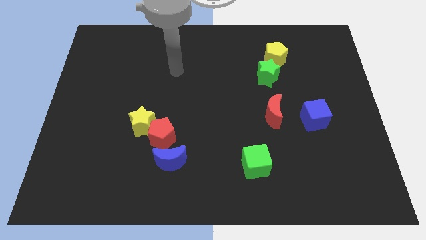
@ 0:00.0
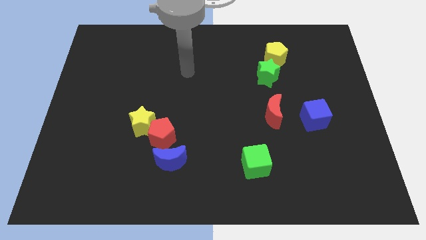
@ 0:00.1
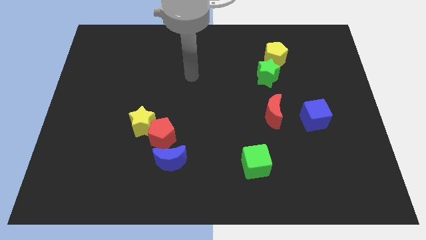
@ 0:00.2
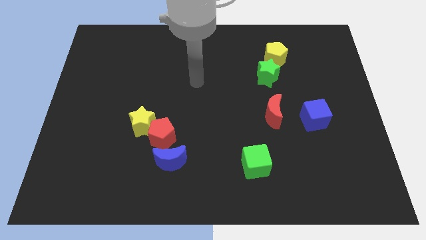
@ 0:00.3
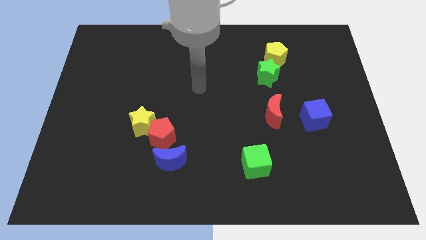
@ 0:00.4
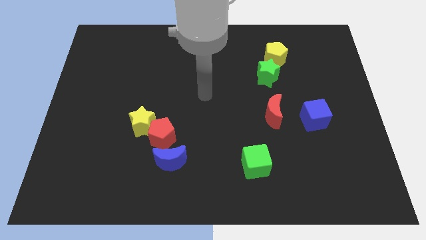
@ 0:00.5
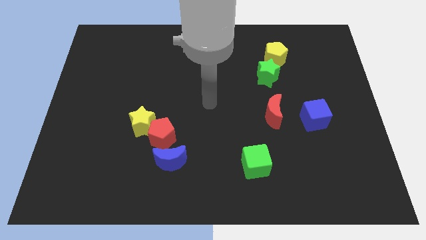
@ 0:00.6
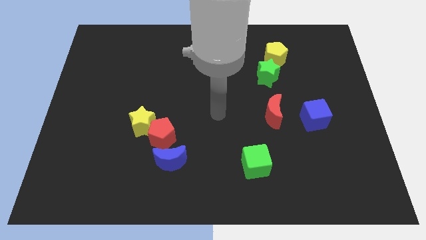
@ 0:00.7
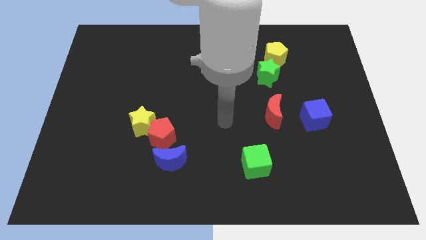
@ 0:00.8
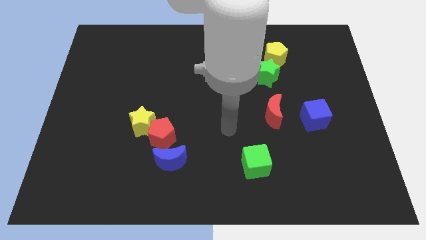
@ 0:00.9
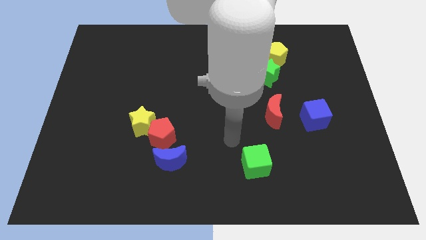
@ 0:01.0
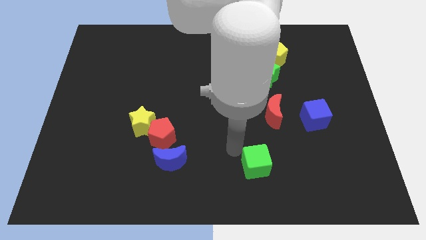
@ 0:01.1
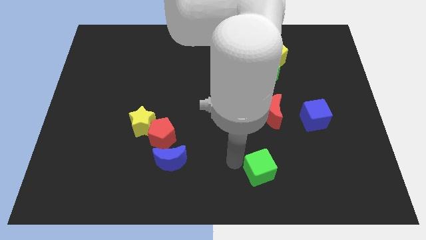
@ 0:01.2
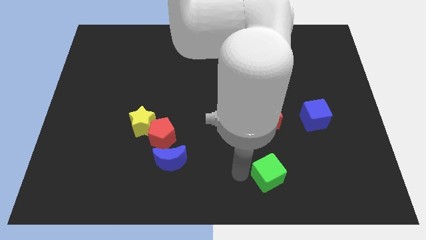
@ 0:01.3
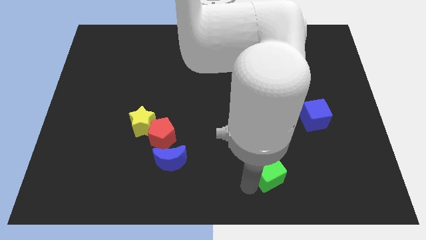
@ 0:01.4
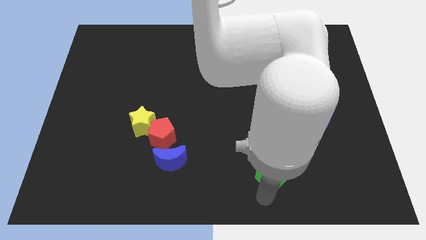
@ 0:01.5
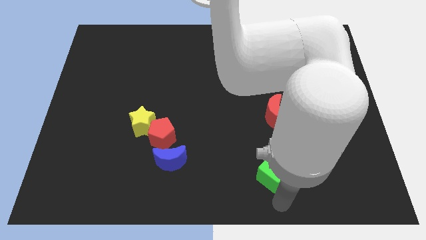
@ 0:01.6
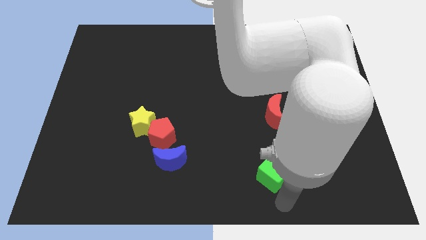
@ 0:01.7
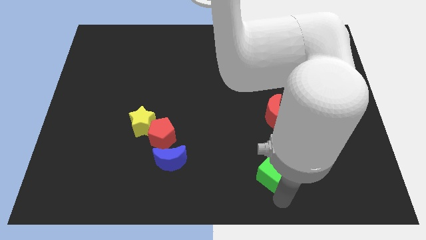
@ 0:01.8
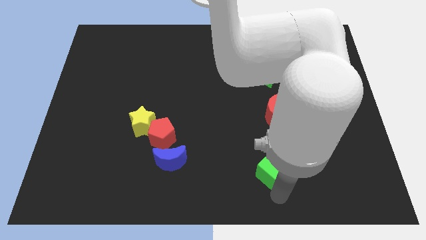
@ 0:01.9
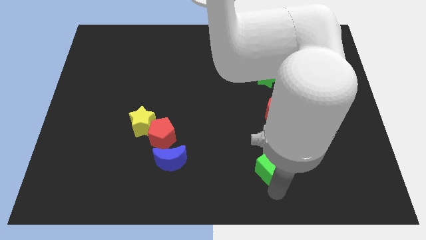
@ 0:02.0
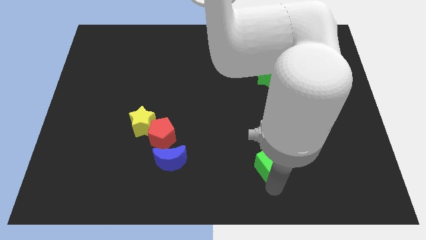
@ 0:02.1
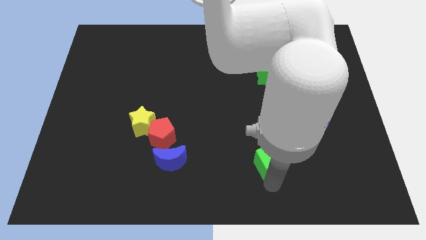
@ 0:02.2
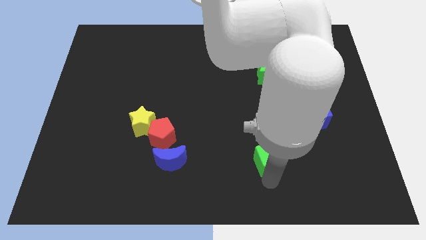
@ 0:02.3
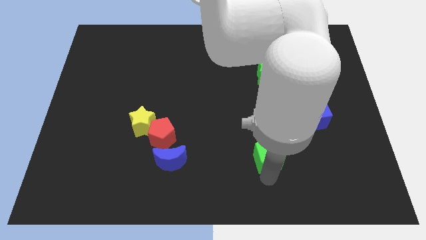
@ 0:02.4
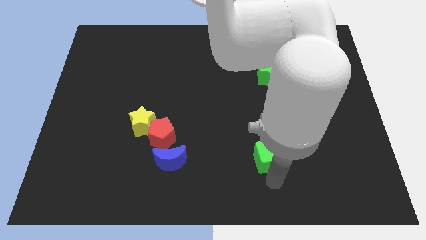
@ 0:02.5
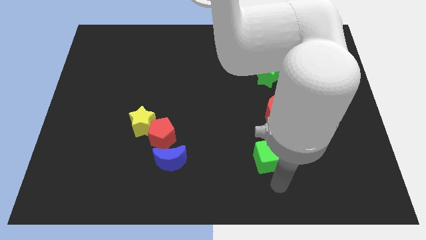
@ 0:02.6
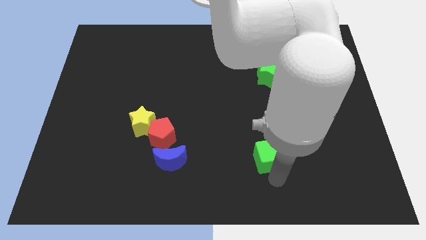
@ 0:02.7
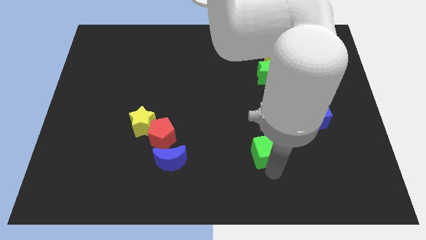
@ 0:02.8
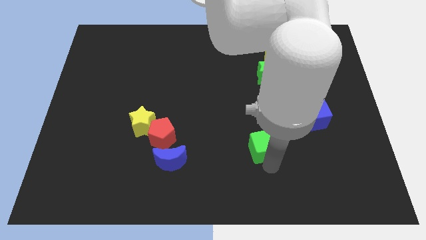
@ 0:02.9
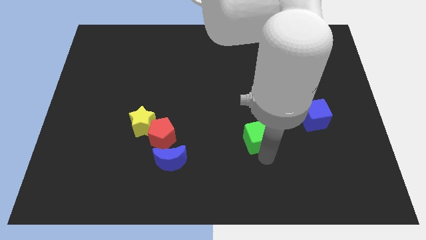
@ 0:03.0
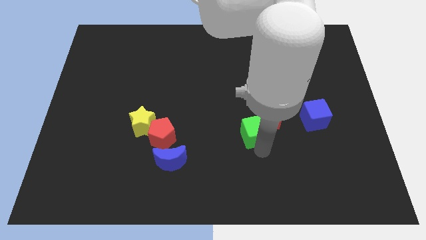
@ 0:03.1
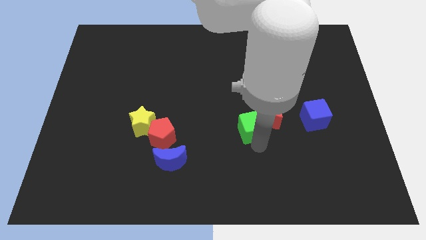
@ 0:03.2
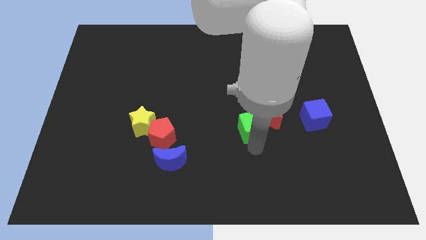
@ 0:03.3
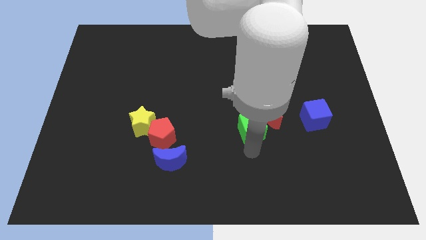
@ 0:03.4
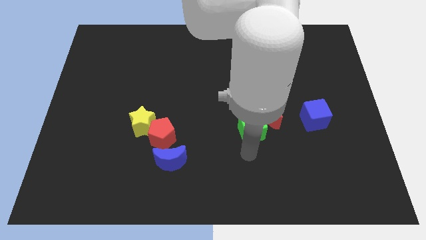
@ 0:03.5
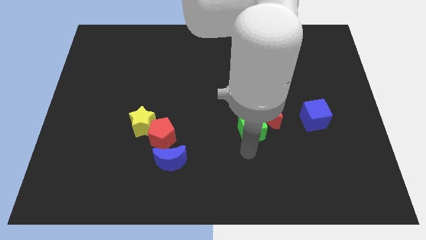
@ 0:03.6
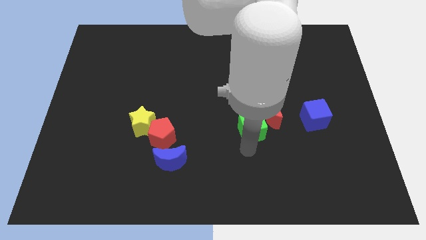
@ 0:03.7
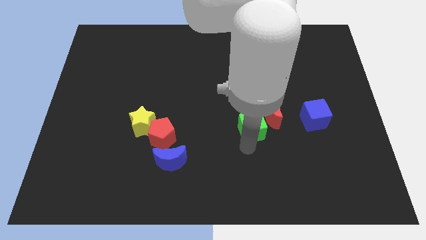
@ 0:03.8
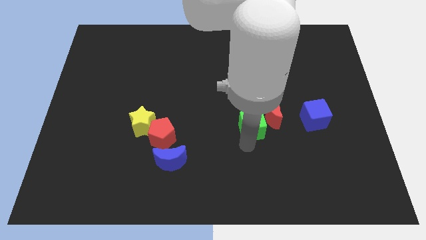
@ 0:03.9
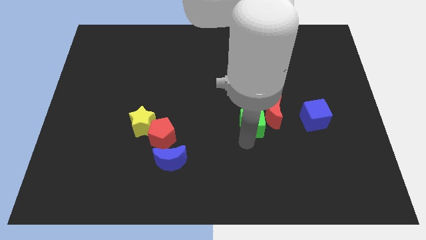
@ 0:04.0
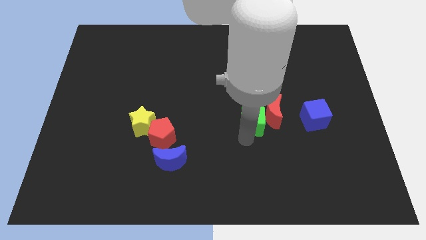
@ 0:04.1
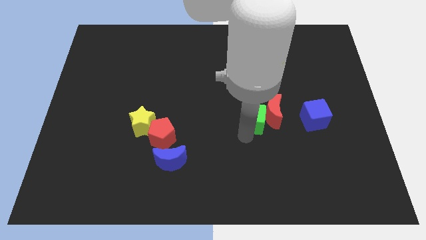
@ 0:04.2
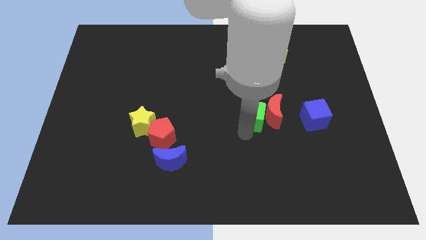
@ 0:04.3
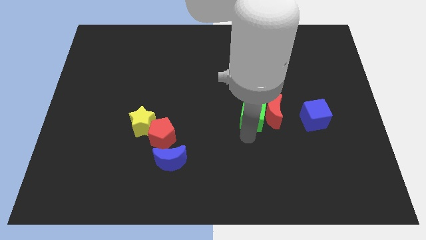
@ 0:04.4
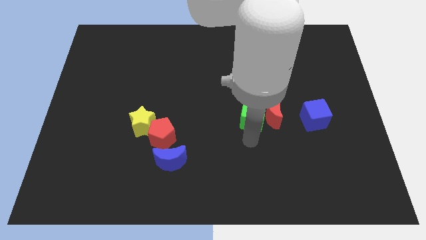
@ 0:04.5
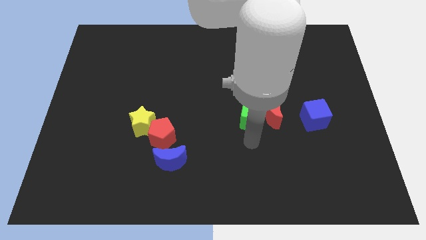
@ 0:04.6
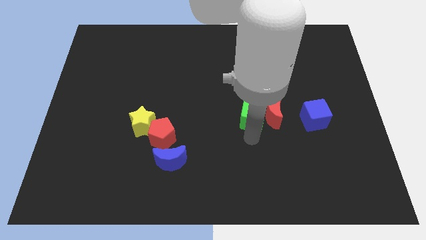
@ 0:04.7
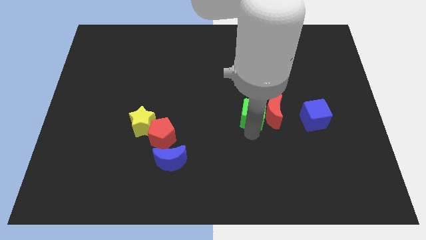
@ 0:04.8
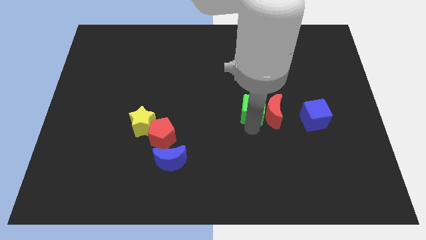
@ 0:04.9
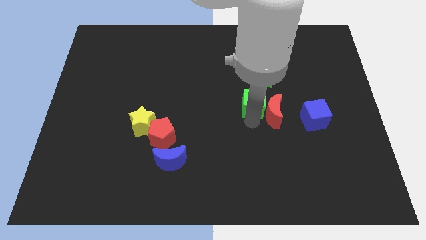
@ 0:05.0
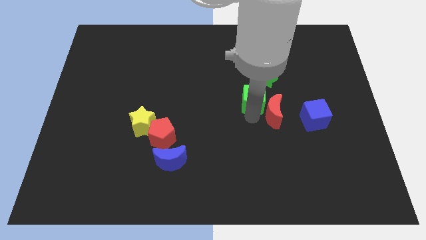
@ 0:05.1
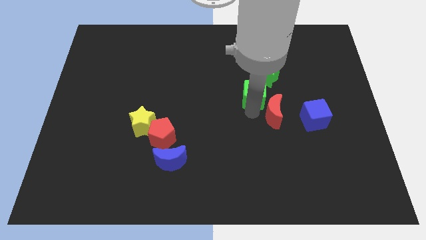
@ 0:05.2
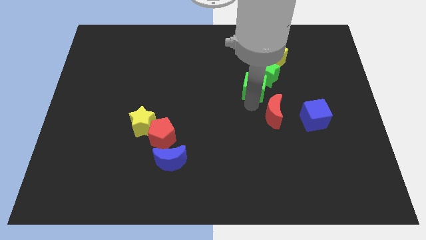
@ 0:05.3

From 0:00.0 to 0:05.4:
push the green cube close to the green star
